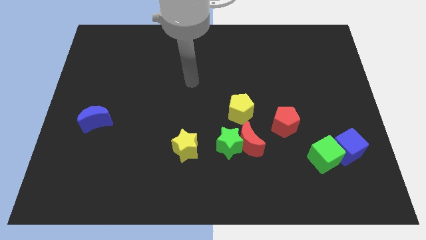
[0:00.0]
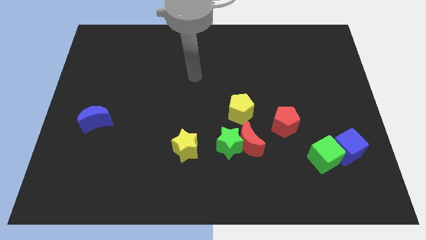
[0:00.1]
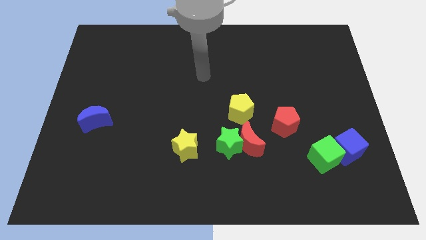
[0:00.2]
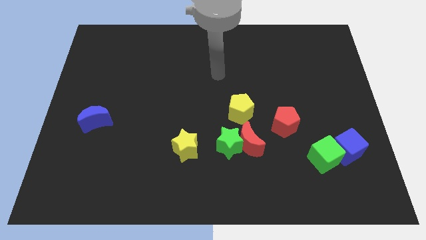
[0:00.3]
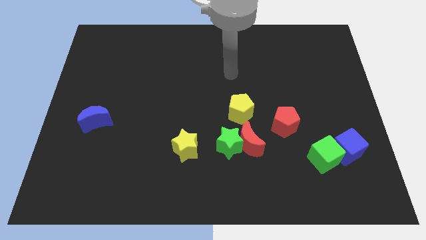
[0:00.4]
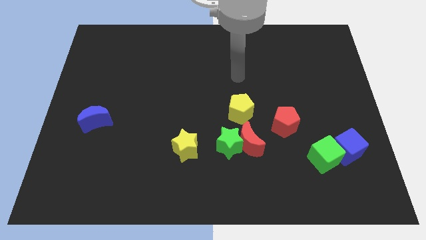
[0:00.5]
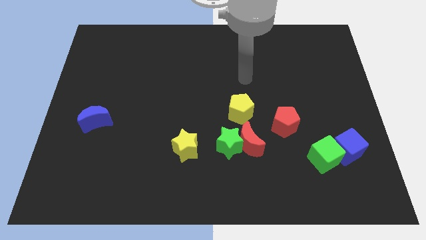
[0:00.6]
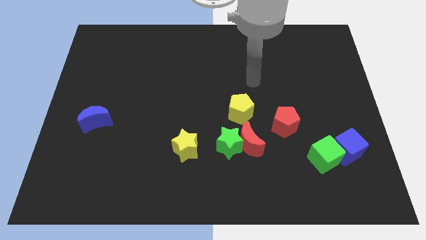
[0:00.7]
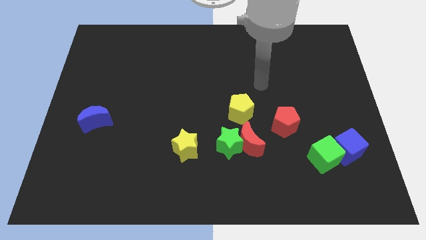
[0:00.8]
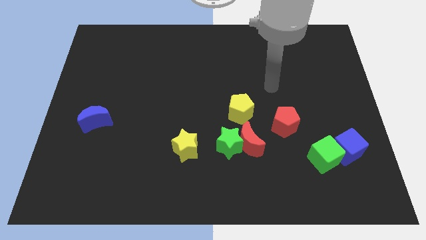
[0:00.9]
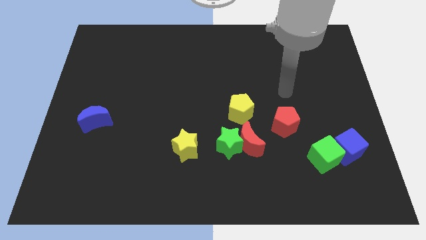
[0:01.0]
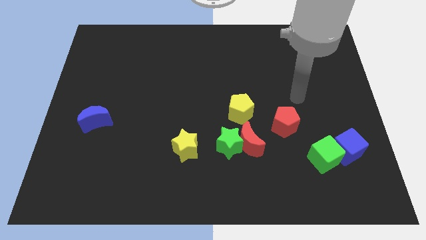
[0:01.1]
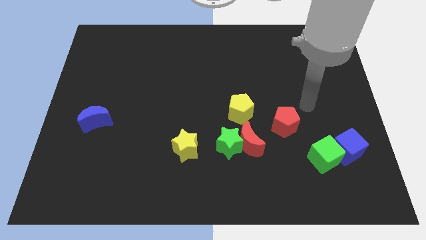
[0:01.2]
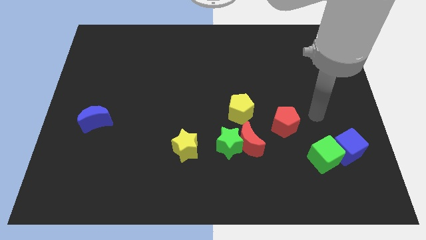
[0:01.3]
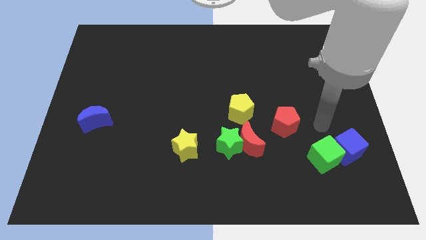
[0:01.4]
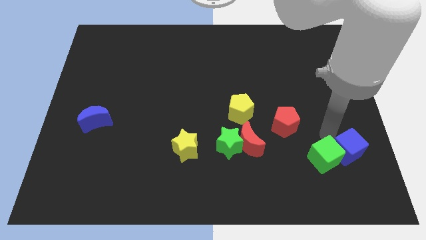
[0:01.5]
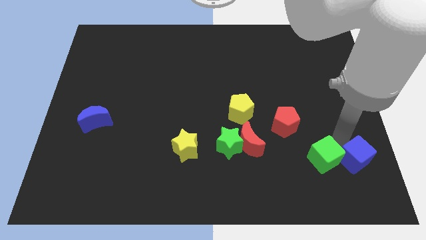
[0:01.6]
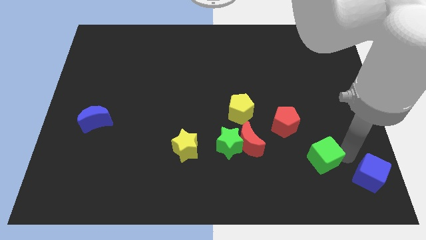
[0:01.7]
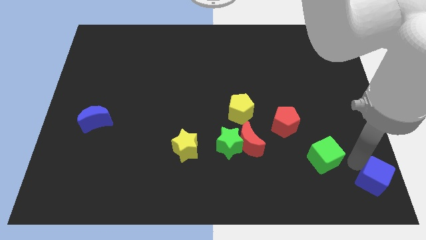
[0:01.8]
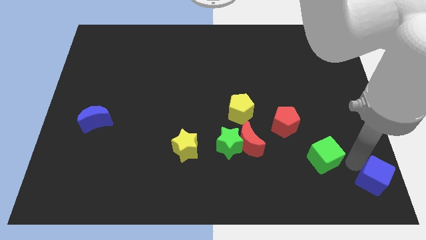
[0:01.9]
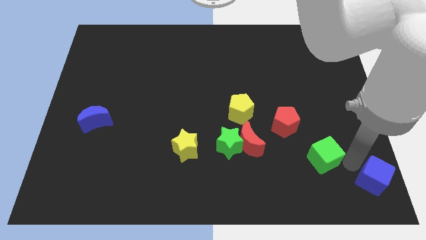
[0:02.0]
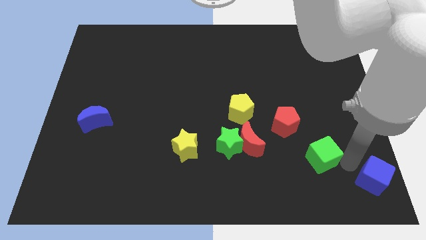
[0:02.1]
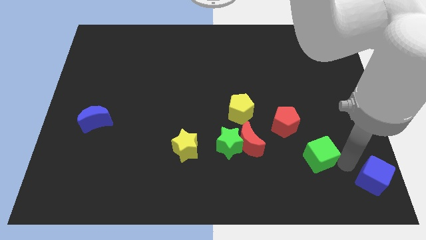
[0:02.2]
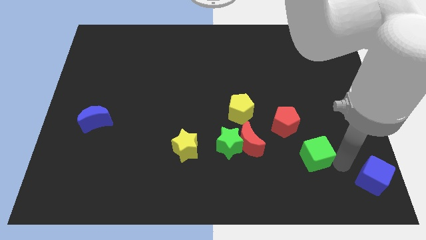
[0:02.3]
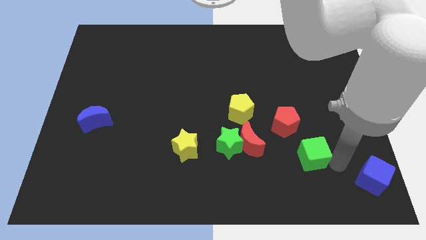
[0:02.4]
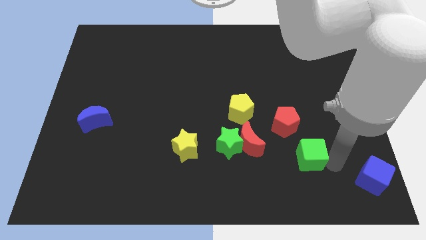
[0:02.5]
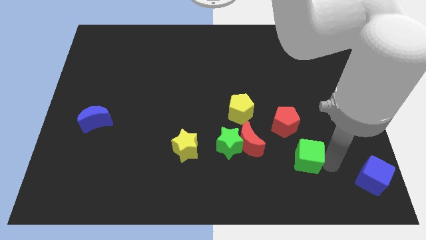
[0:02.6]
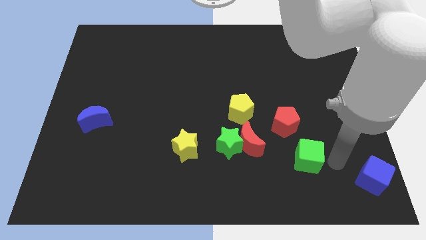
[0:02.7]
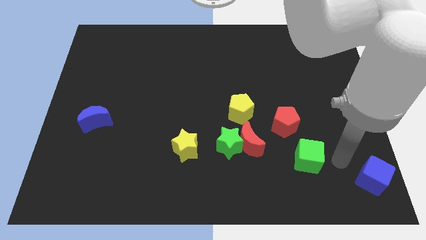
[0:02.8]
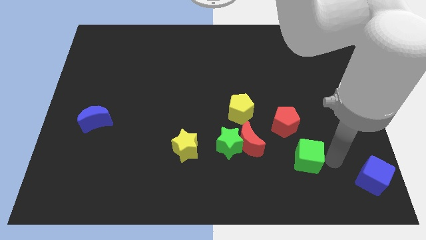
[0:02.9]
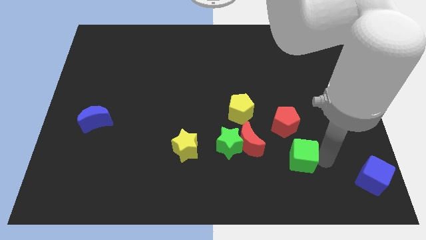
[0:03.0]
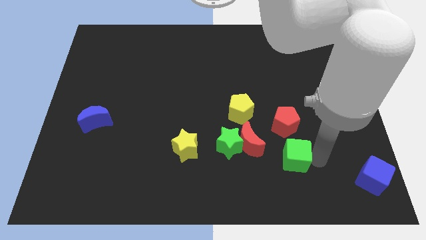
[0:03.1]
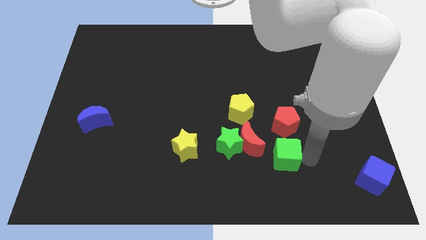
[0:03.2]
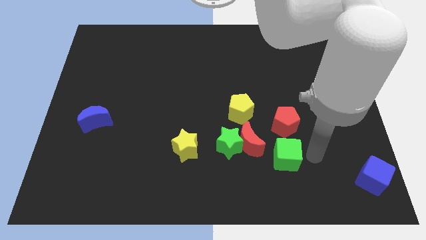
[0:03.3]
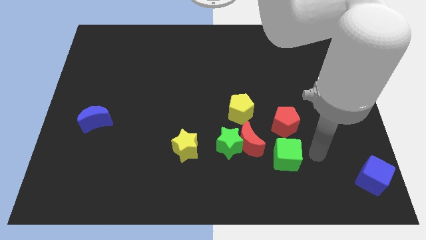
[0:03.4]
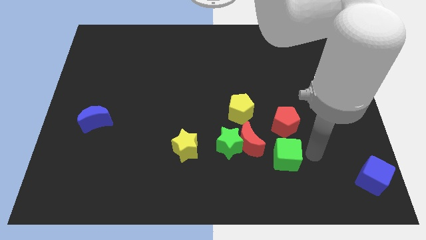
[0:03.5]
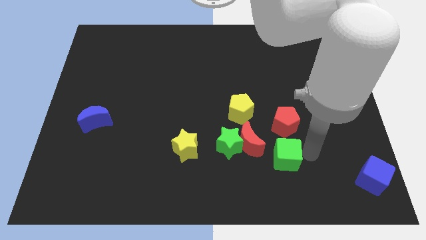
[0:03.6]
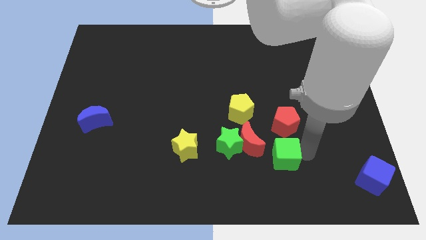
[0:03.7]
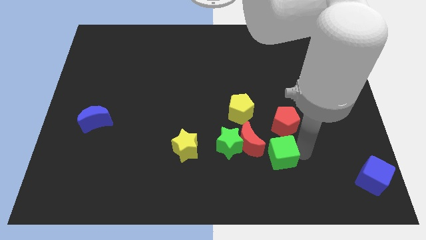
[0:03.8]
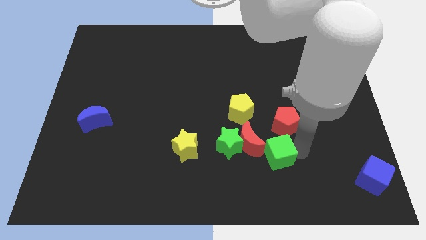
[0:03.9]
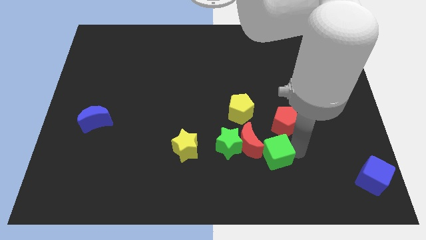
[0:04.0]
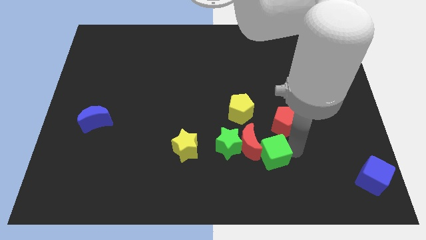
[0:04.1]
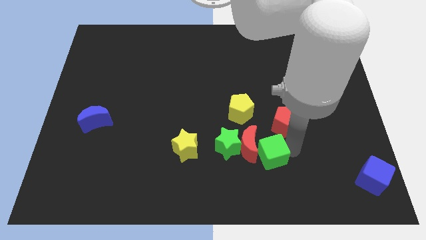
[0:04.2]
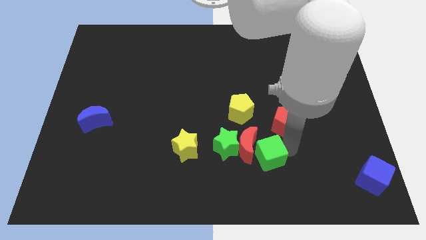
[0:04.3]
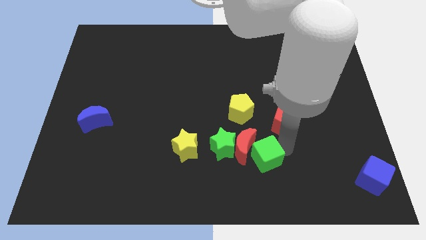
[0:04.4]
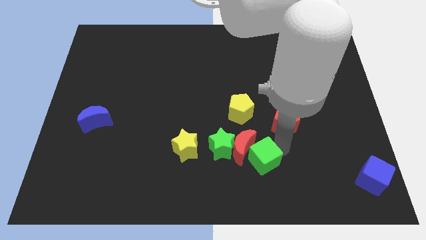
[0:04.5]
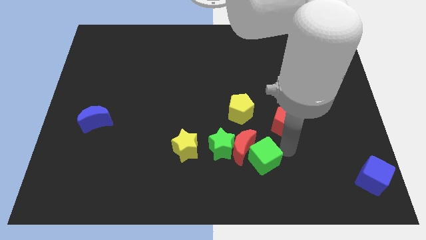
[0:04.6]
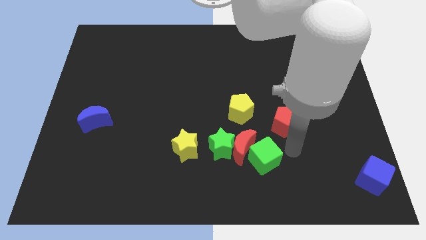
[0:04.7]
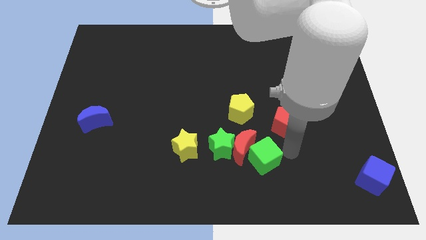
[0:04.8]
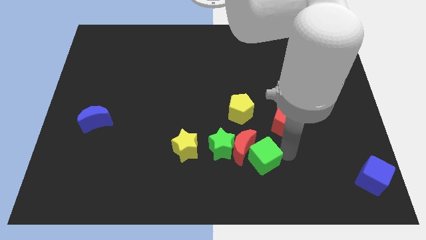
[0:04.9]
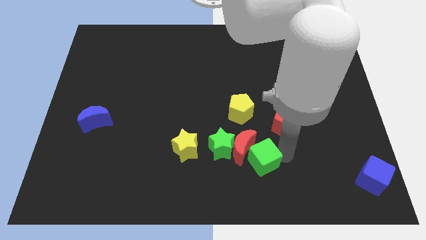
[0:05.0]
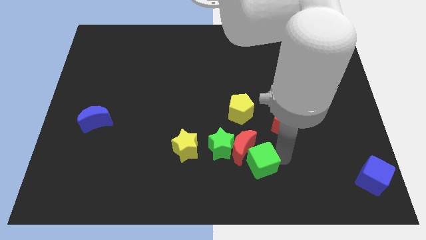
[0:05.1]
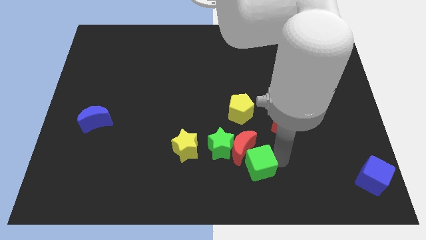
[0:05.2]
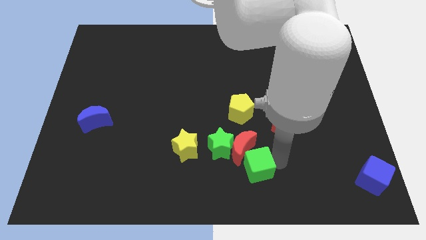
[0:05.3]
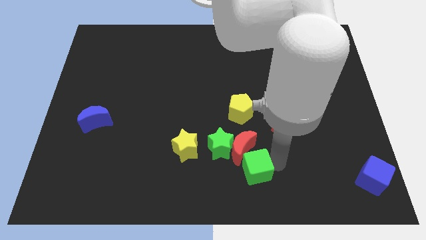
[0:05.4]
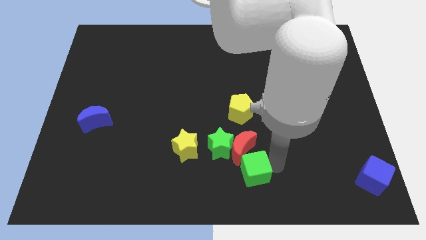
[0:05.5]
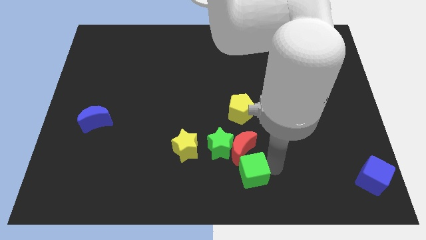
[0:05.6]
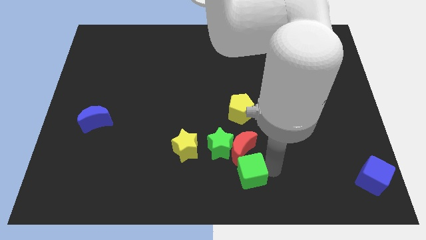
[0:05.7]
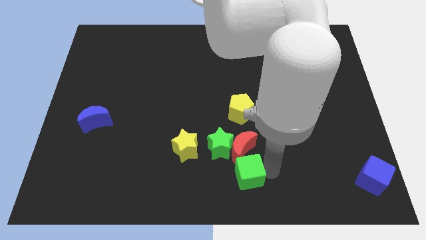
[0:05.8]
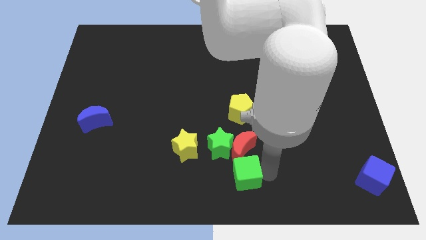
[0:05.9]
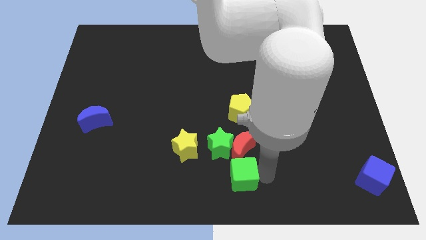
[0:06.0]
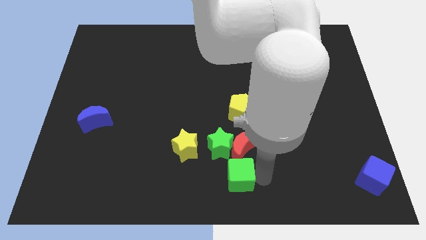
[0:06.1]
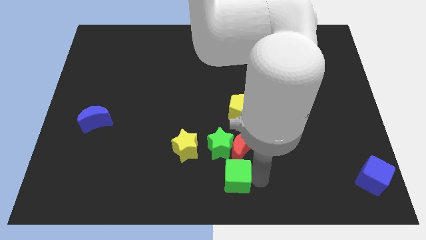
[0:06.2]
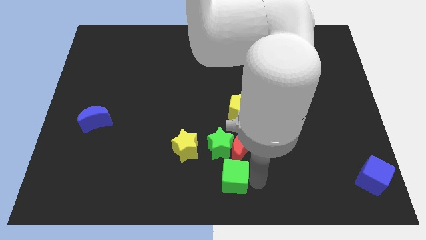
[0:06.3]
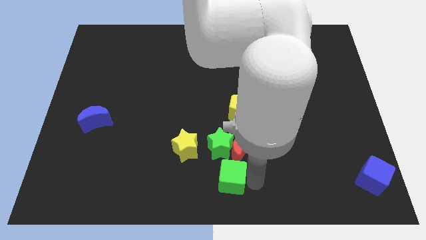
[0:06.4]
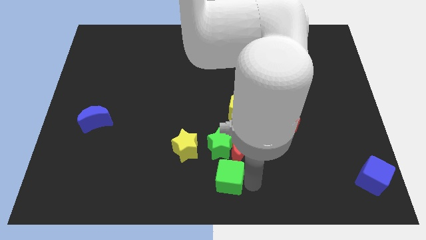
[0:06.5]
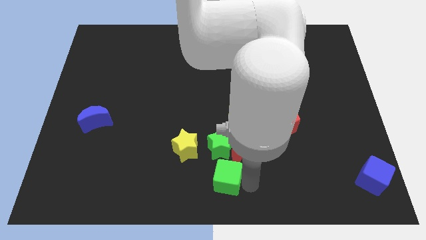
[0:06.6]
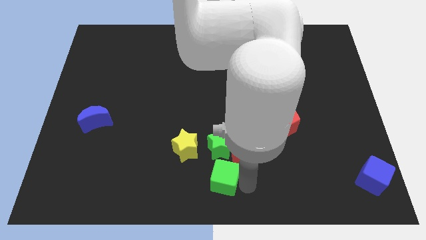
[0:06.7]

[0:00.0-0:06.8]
push the green cube to the left

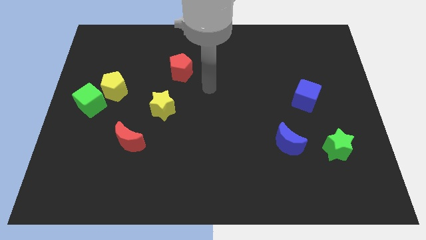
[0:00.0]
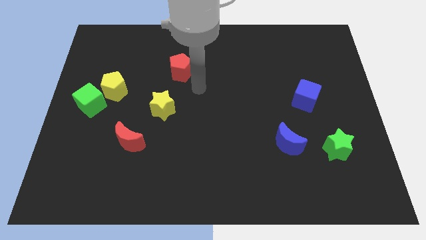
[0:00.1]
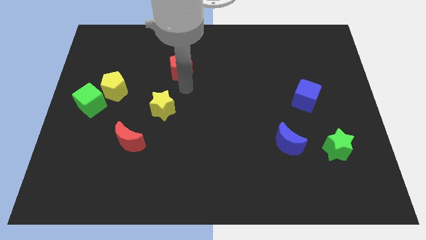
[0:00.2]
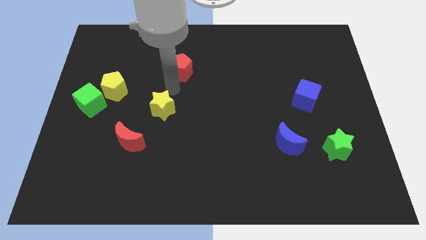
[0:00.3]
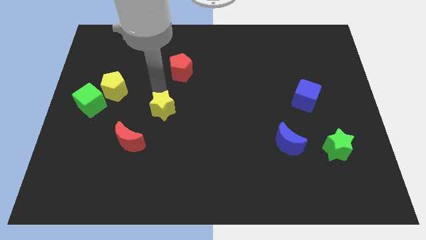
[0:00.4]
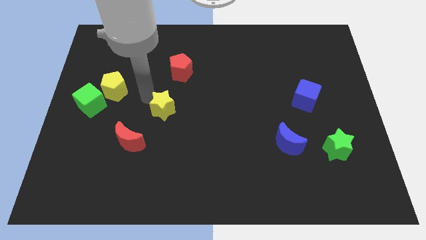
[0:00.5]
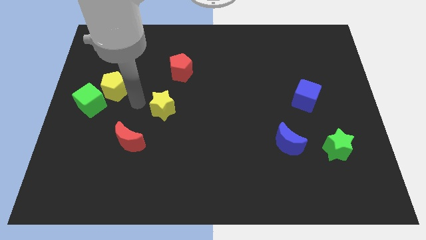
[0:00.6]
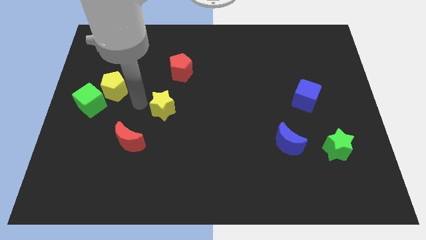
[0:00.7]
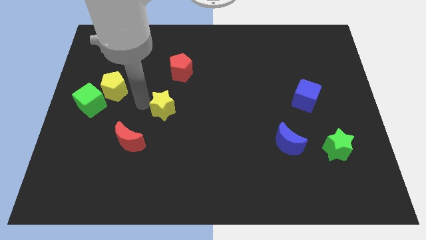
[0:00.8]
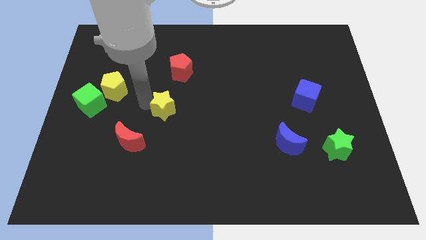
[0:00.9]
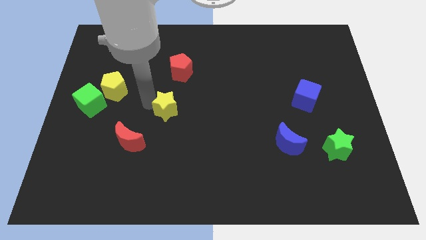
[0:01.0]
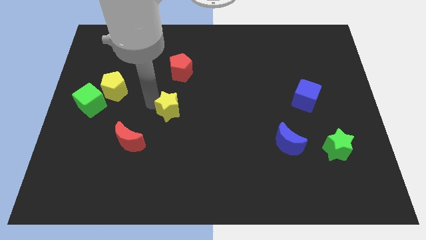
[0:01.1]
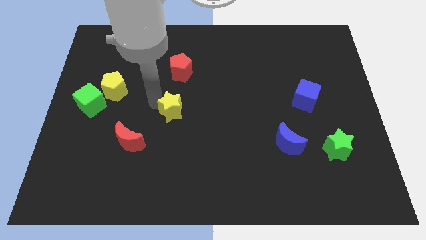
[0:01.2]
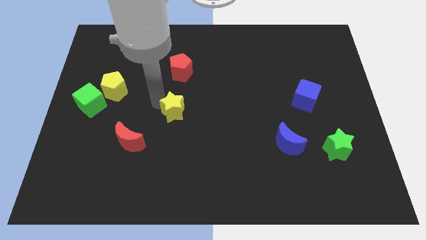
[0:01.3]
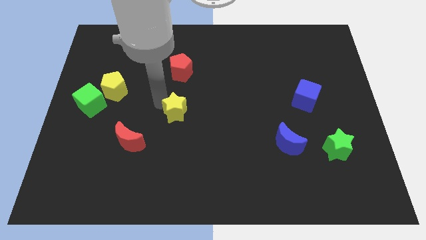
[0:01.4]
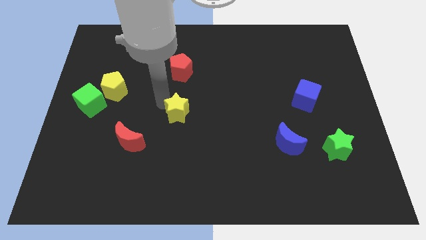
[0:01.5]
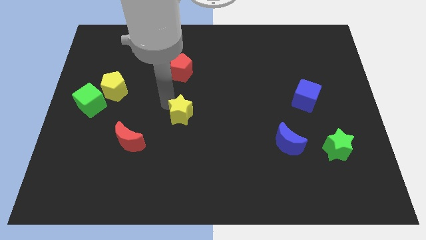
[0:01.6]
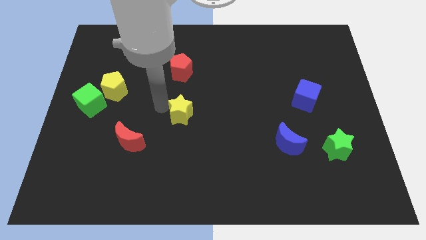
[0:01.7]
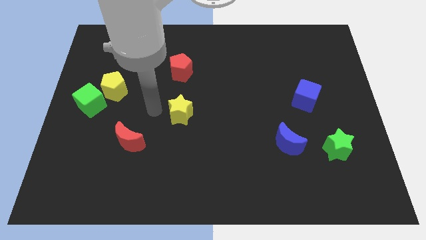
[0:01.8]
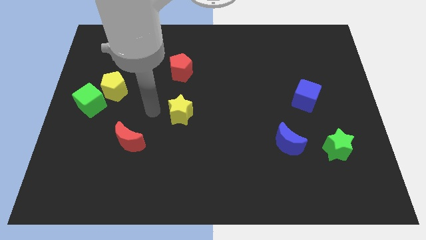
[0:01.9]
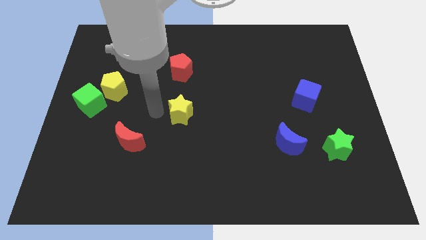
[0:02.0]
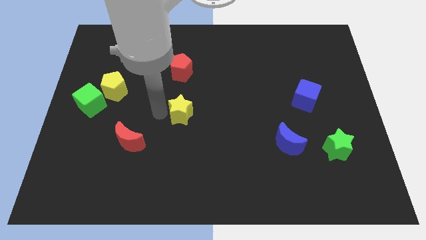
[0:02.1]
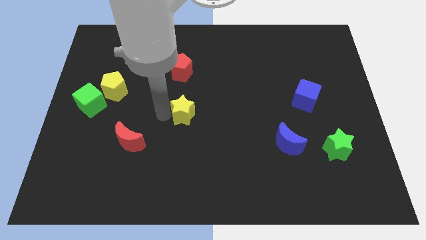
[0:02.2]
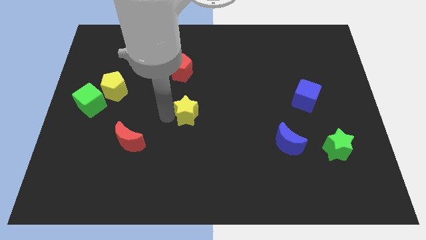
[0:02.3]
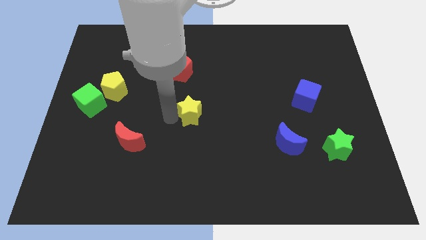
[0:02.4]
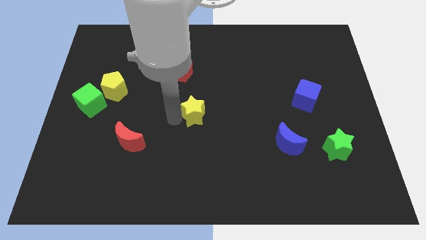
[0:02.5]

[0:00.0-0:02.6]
move the yellow star a little bit right
